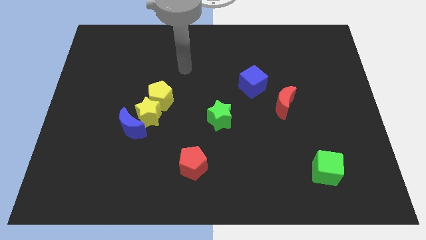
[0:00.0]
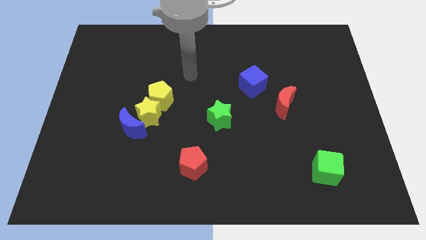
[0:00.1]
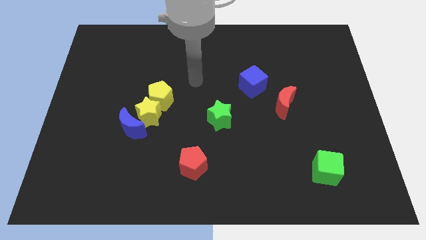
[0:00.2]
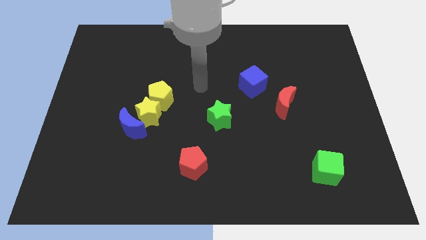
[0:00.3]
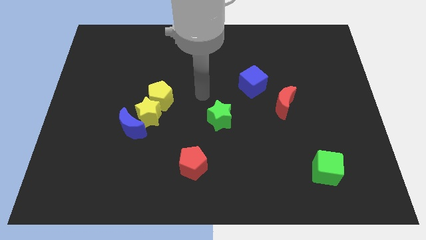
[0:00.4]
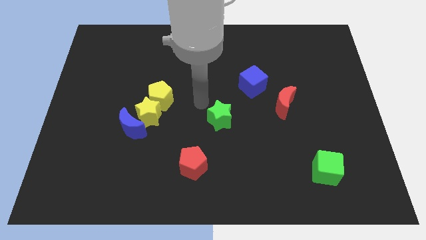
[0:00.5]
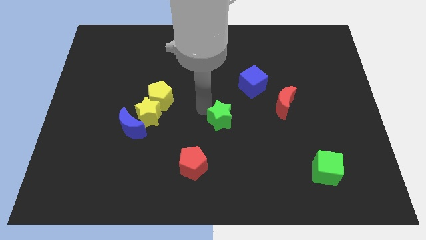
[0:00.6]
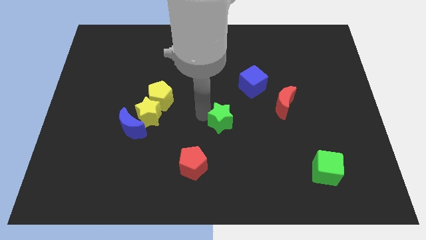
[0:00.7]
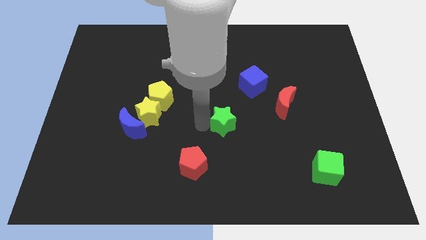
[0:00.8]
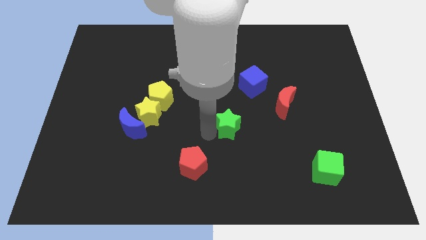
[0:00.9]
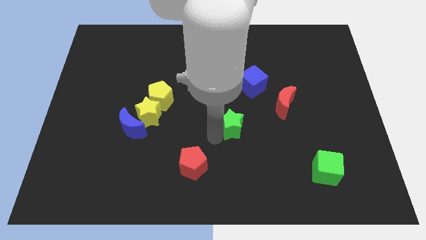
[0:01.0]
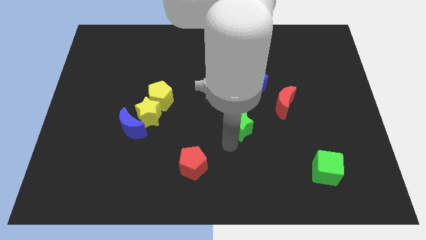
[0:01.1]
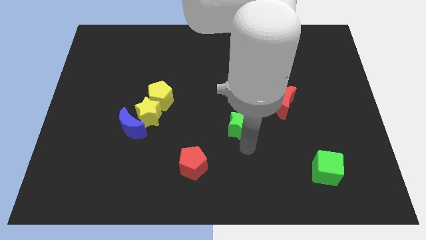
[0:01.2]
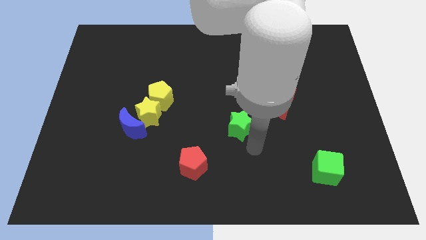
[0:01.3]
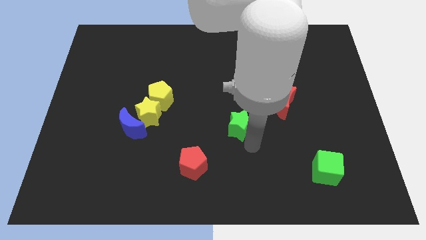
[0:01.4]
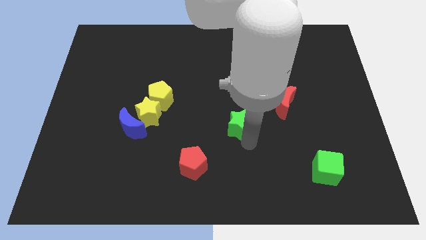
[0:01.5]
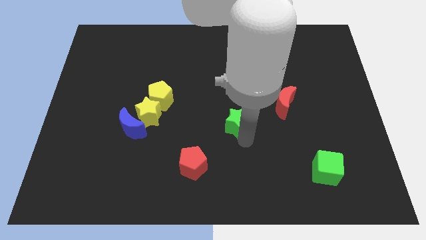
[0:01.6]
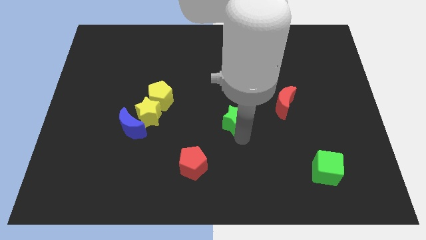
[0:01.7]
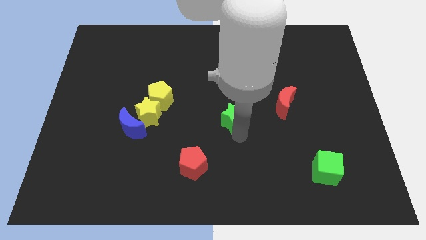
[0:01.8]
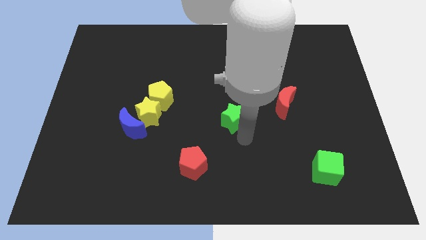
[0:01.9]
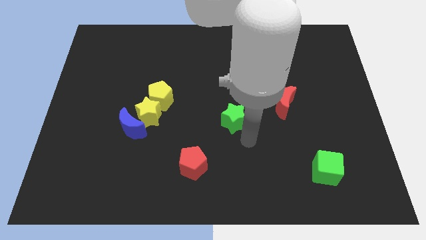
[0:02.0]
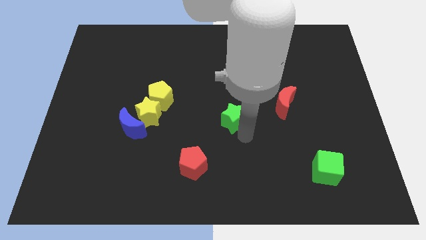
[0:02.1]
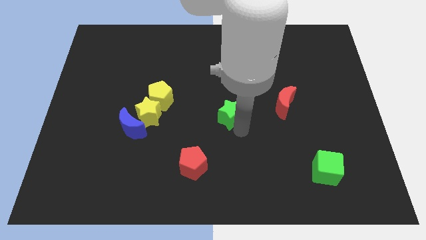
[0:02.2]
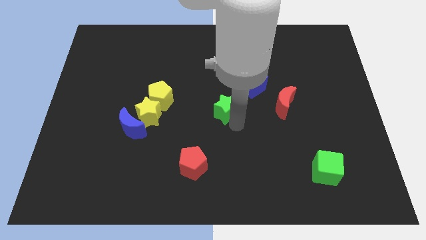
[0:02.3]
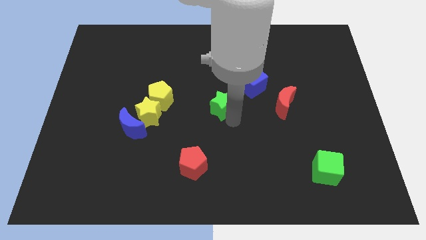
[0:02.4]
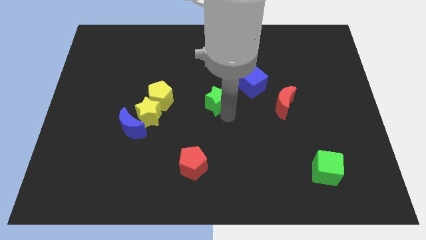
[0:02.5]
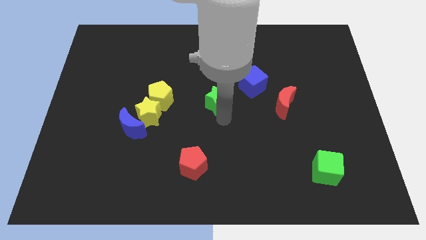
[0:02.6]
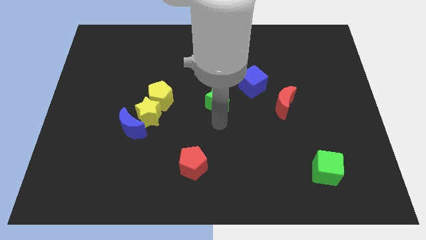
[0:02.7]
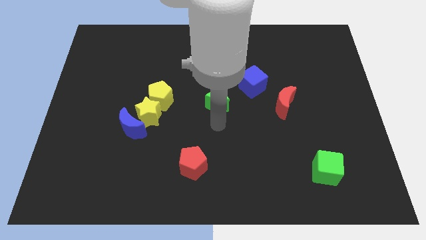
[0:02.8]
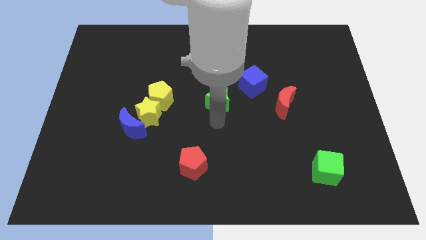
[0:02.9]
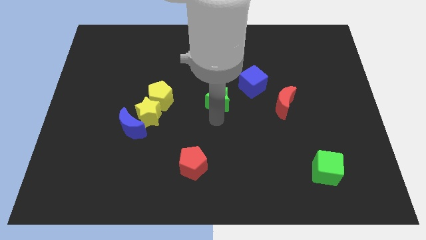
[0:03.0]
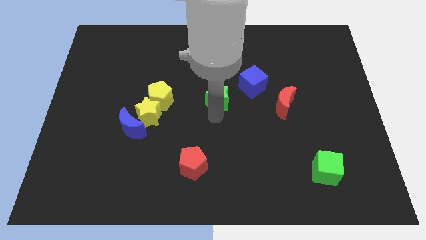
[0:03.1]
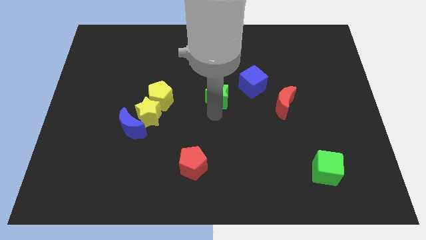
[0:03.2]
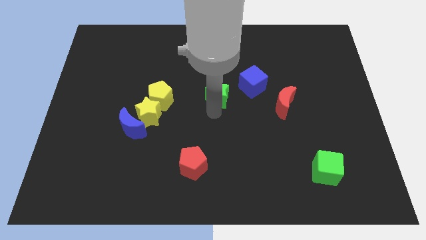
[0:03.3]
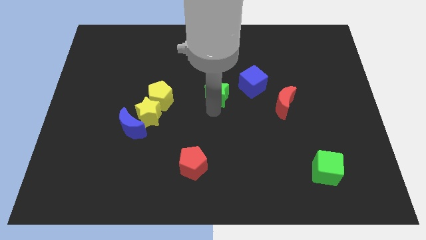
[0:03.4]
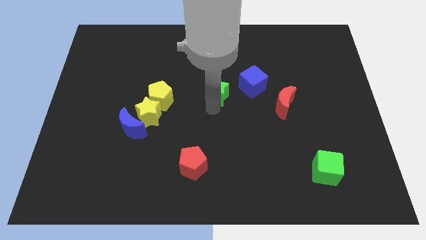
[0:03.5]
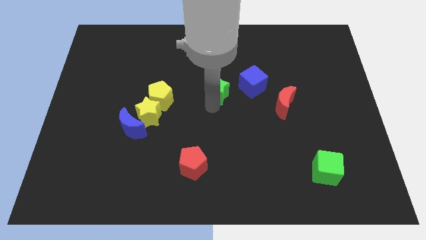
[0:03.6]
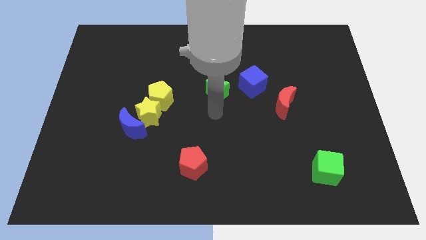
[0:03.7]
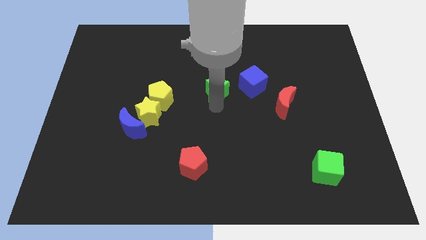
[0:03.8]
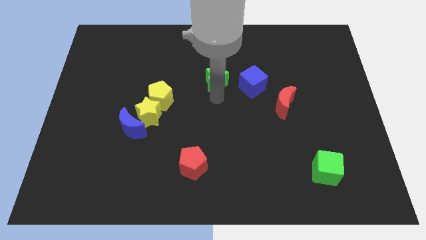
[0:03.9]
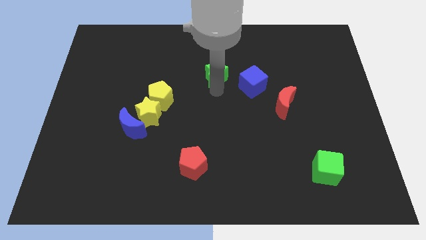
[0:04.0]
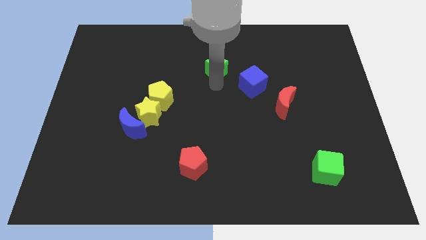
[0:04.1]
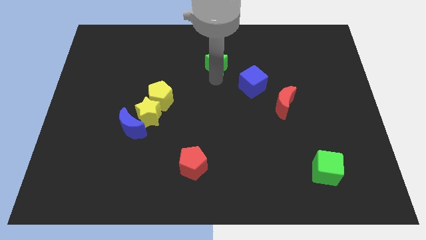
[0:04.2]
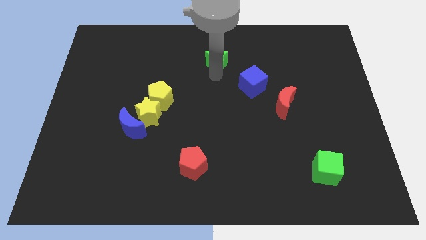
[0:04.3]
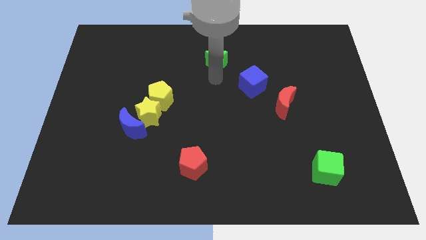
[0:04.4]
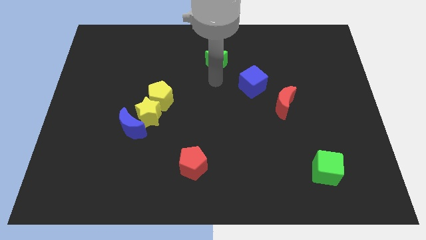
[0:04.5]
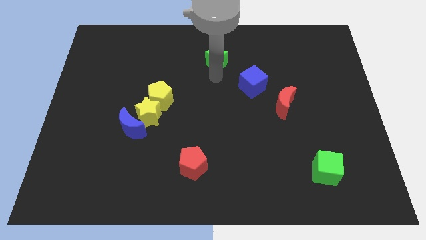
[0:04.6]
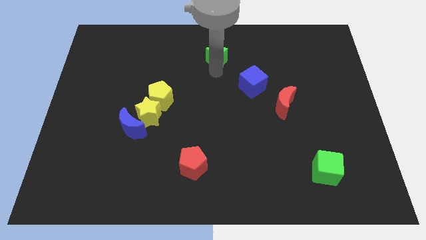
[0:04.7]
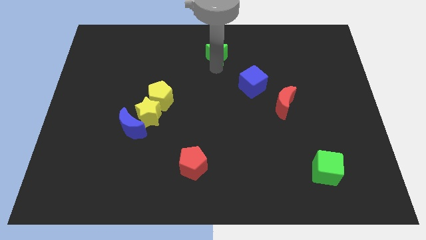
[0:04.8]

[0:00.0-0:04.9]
push the green star to the towards your base

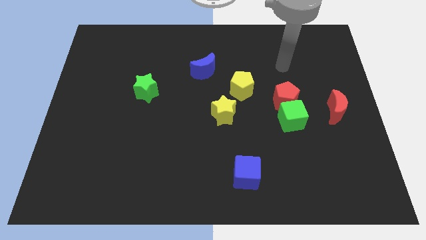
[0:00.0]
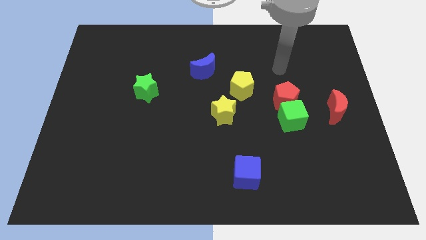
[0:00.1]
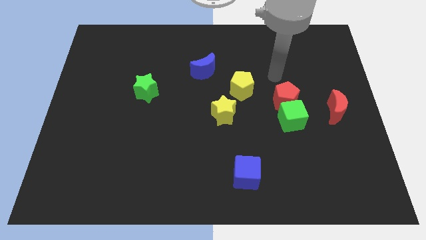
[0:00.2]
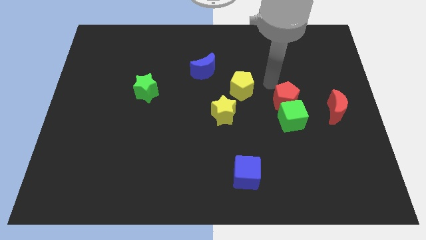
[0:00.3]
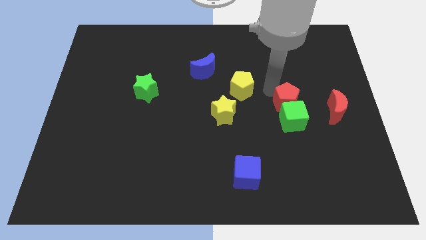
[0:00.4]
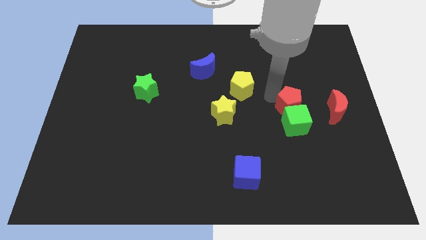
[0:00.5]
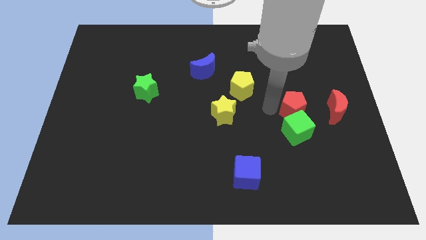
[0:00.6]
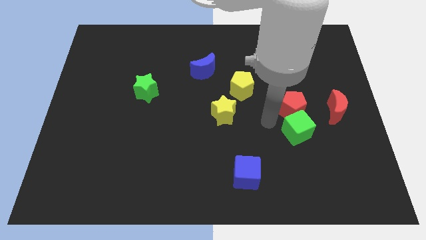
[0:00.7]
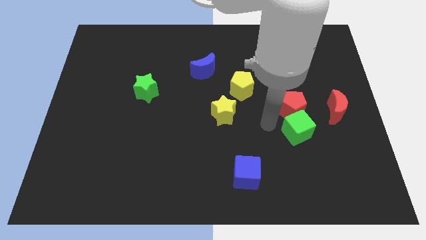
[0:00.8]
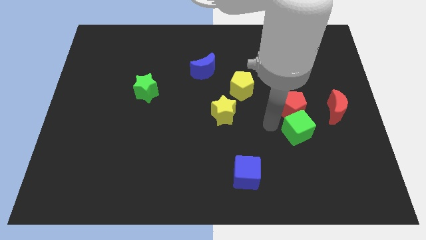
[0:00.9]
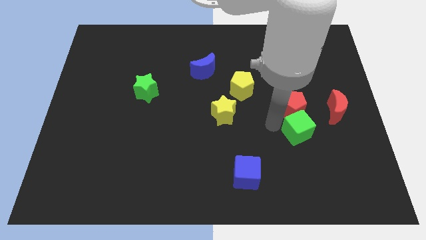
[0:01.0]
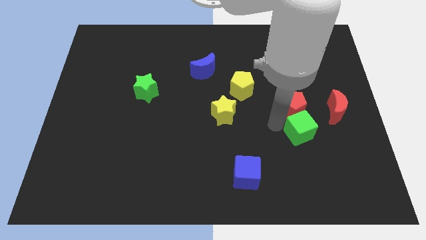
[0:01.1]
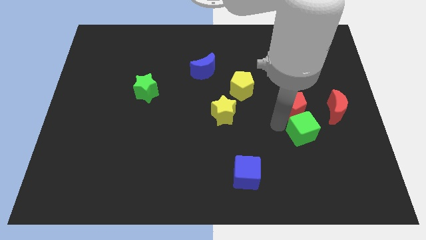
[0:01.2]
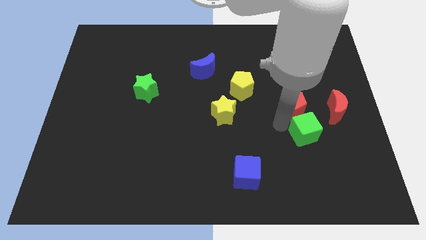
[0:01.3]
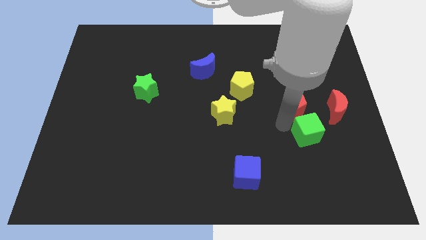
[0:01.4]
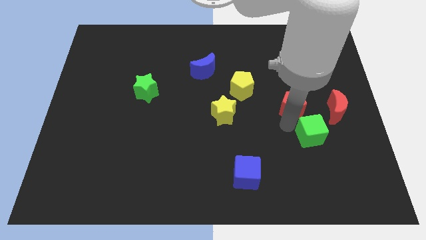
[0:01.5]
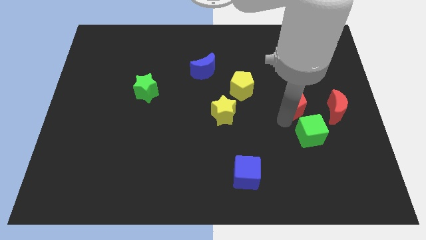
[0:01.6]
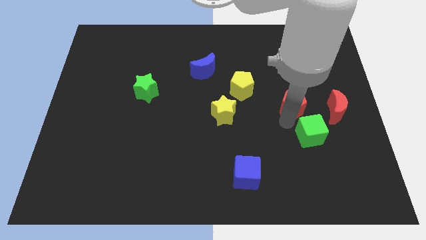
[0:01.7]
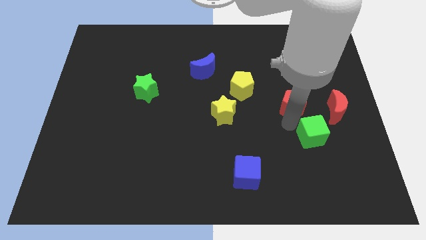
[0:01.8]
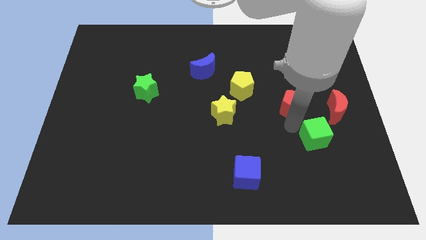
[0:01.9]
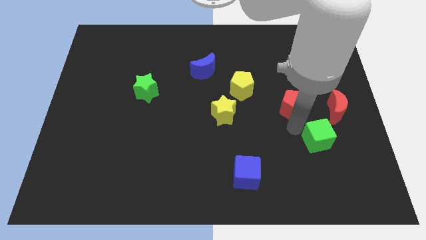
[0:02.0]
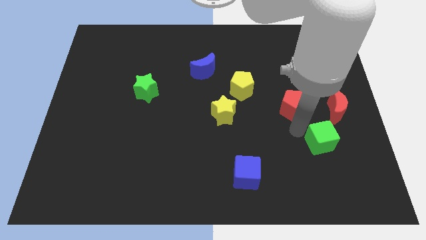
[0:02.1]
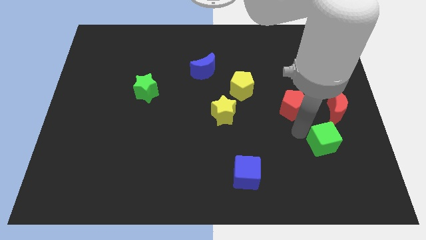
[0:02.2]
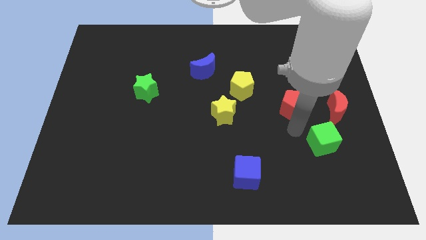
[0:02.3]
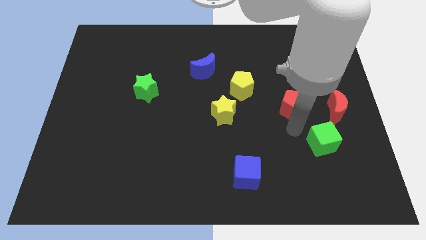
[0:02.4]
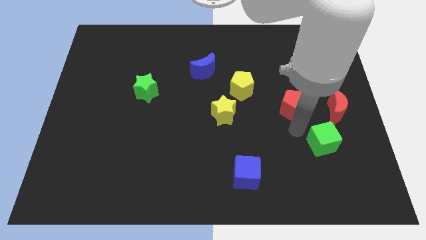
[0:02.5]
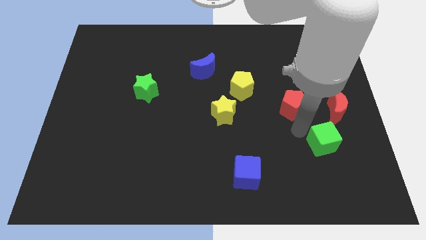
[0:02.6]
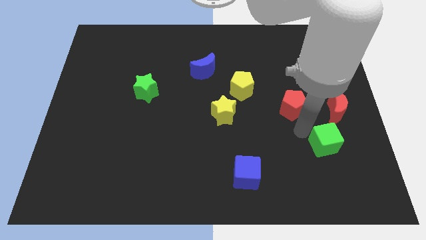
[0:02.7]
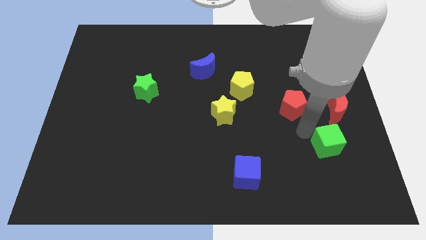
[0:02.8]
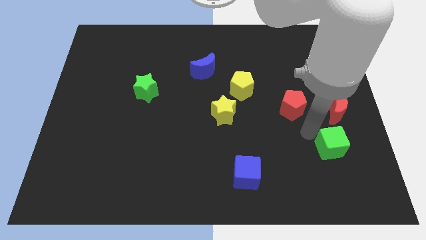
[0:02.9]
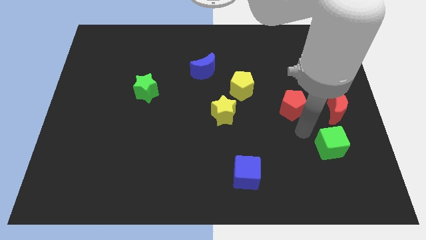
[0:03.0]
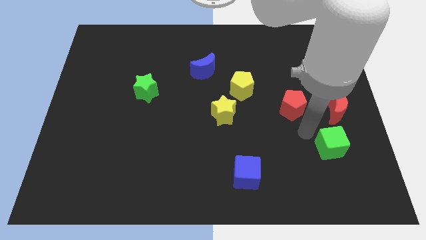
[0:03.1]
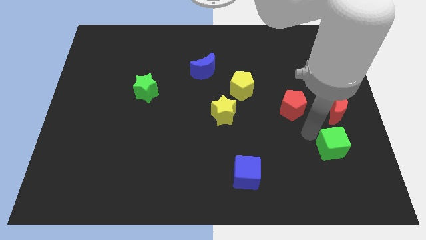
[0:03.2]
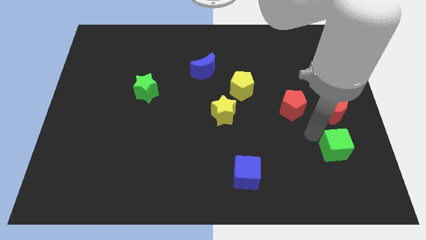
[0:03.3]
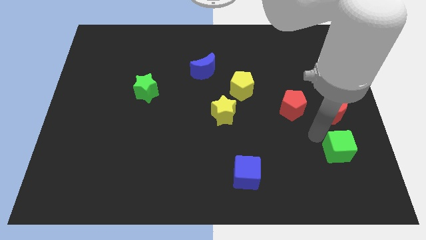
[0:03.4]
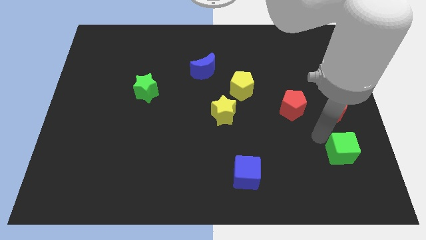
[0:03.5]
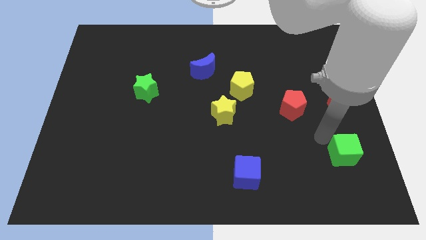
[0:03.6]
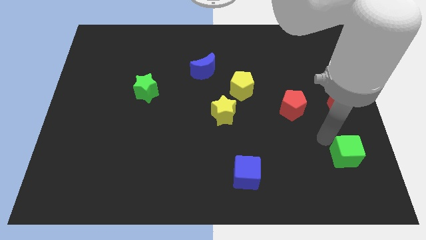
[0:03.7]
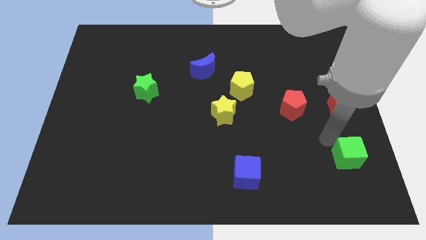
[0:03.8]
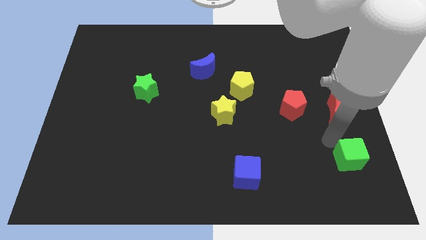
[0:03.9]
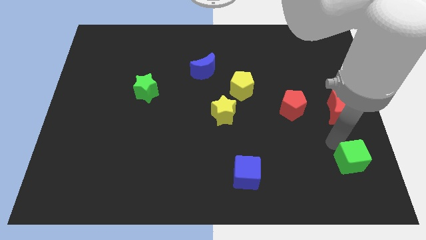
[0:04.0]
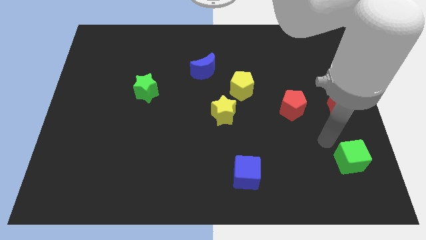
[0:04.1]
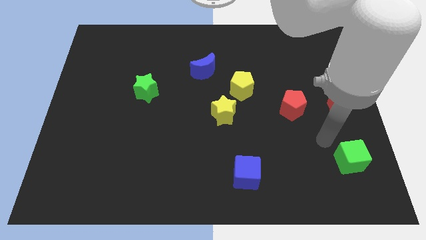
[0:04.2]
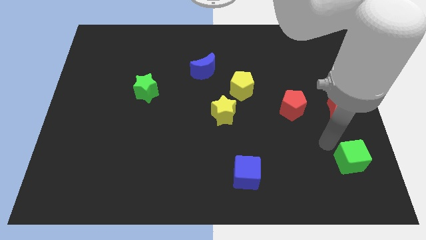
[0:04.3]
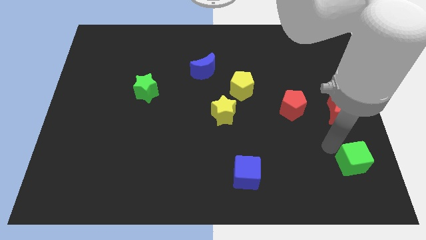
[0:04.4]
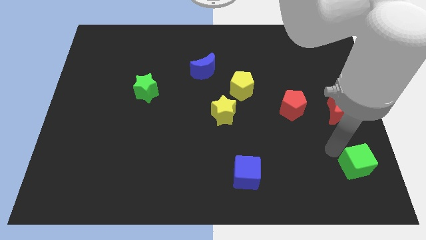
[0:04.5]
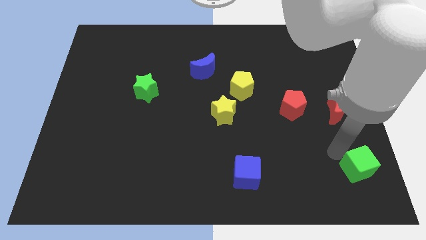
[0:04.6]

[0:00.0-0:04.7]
push the green cube to the lower right corner
